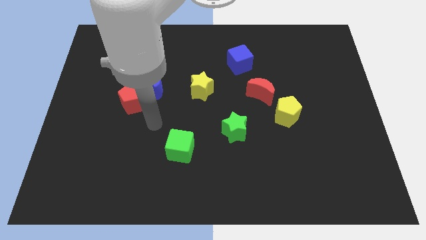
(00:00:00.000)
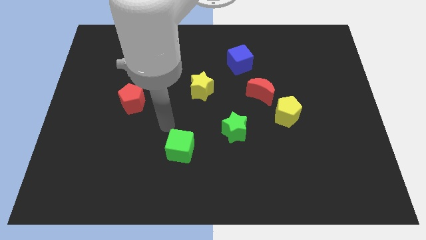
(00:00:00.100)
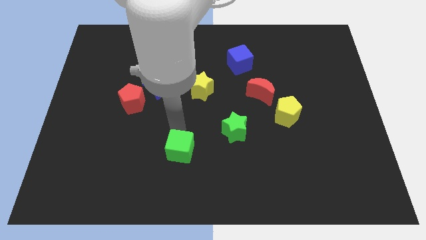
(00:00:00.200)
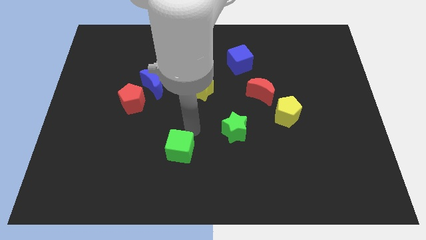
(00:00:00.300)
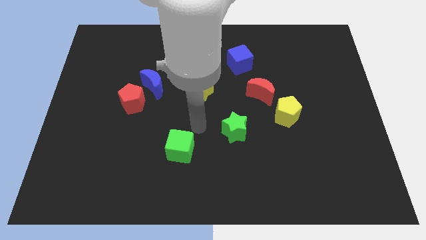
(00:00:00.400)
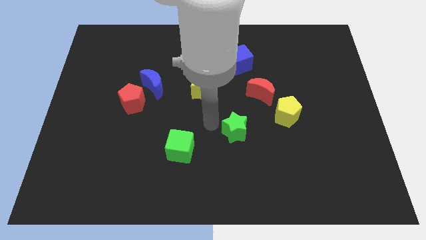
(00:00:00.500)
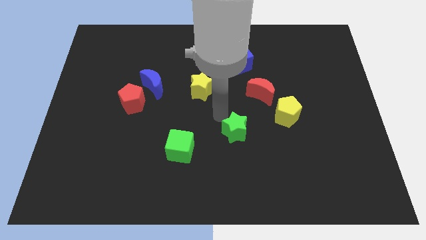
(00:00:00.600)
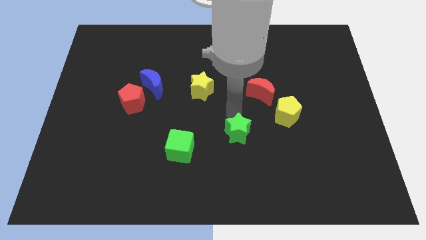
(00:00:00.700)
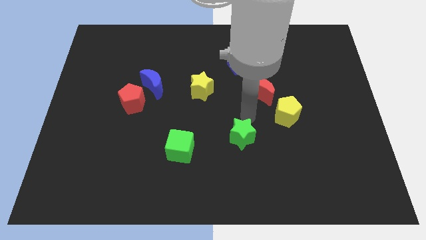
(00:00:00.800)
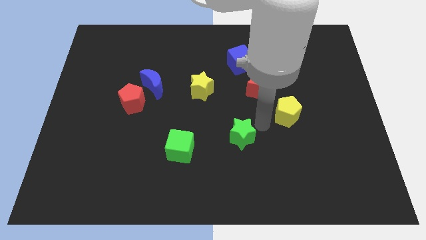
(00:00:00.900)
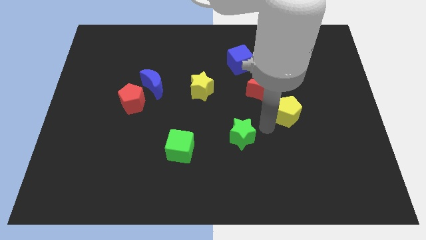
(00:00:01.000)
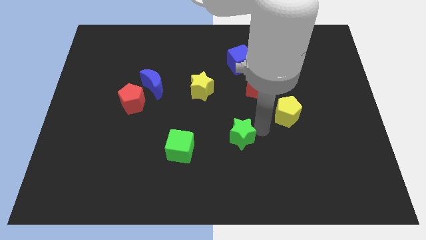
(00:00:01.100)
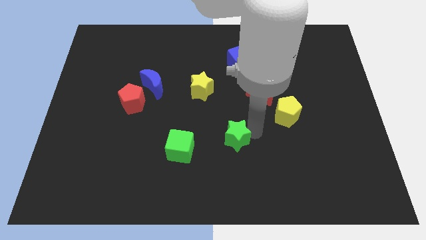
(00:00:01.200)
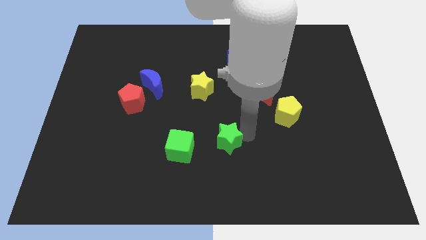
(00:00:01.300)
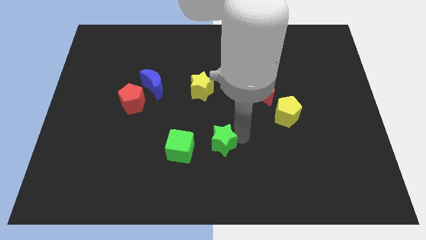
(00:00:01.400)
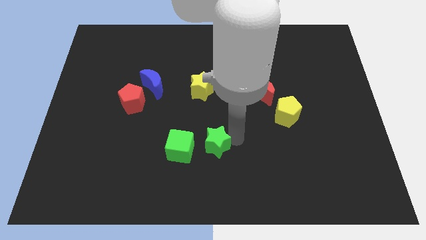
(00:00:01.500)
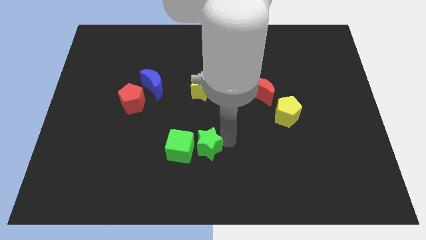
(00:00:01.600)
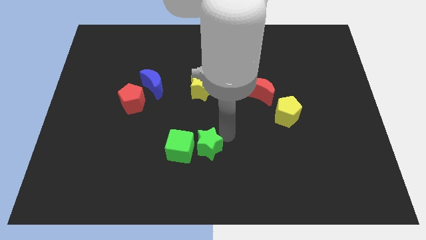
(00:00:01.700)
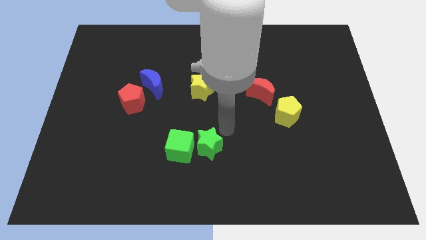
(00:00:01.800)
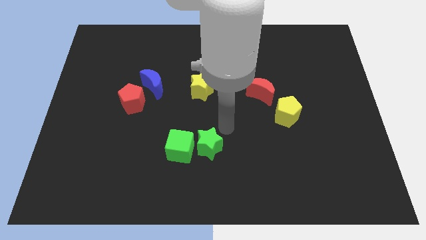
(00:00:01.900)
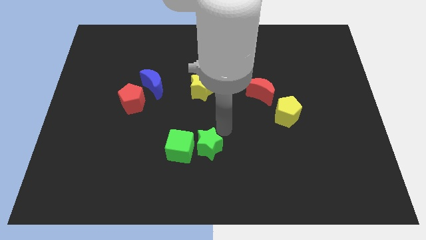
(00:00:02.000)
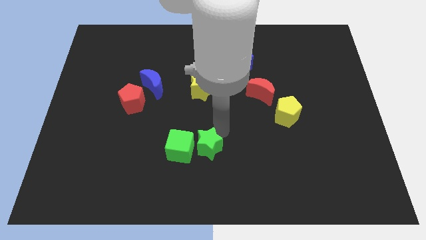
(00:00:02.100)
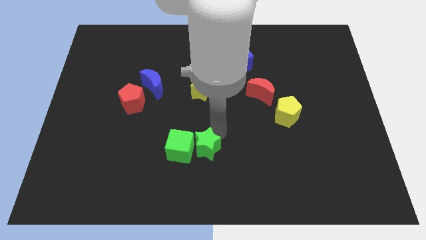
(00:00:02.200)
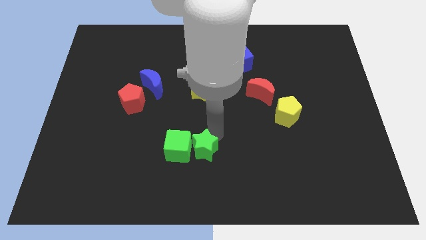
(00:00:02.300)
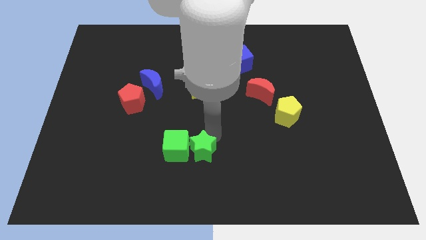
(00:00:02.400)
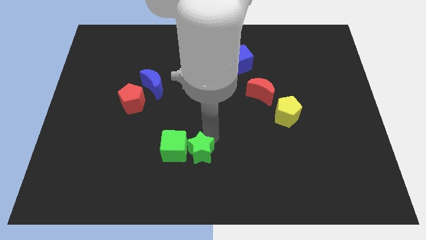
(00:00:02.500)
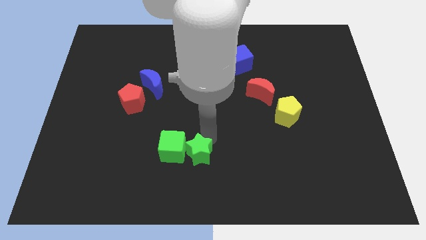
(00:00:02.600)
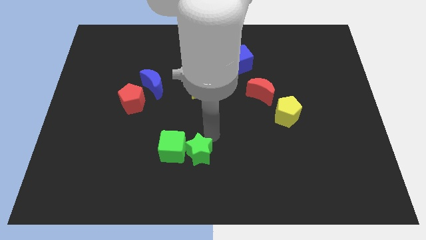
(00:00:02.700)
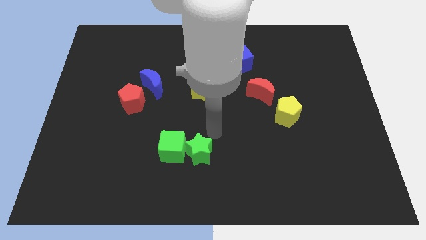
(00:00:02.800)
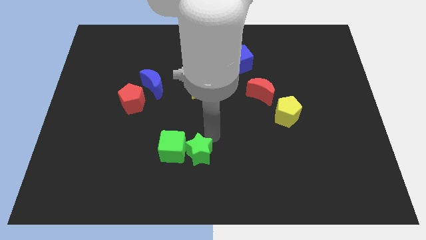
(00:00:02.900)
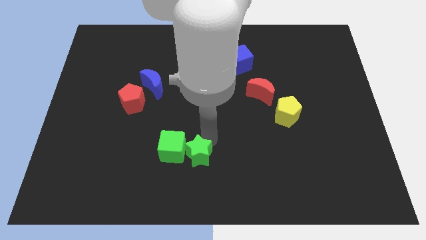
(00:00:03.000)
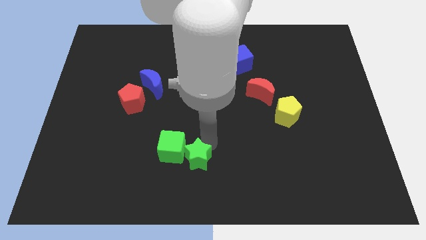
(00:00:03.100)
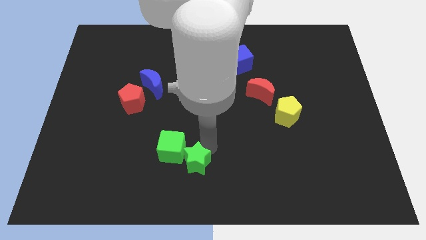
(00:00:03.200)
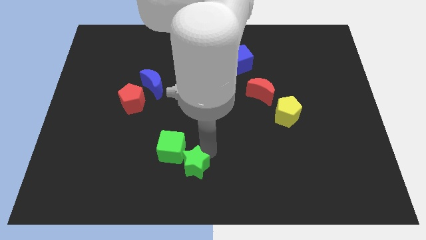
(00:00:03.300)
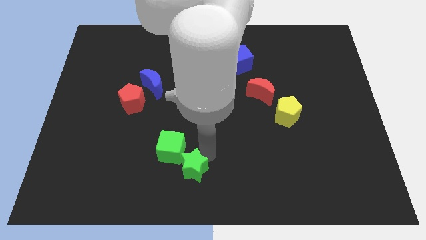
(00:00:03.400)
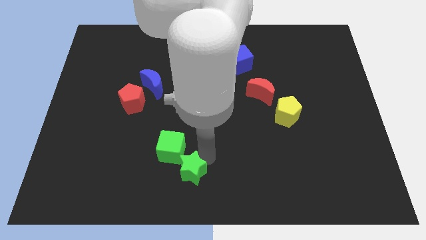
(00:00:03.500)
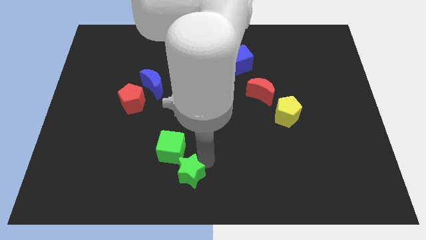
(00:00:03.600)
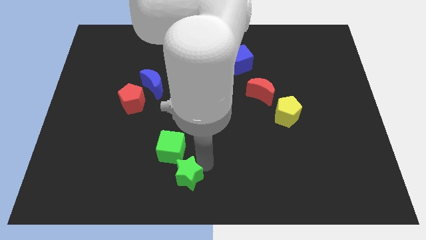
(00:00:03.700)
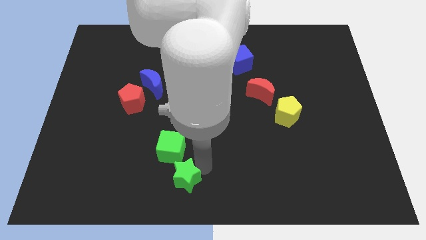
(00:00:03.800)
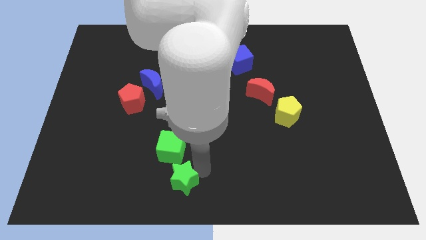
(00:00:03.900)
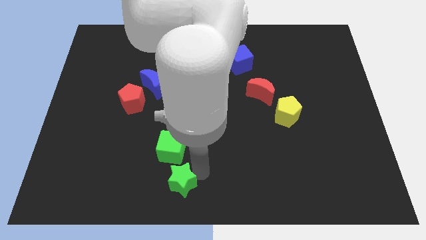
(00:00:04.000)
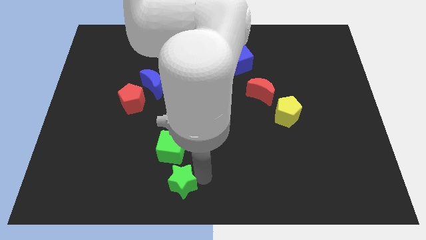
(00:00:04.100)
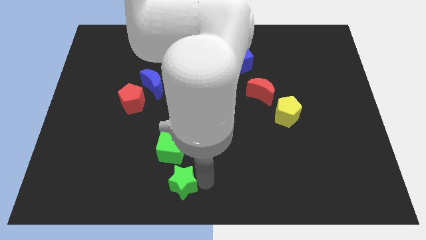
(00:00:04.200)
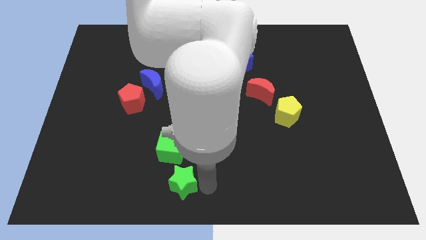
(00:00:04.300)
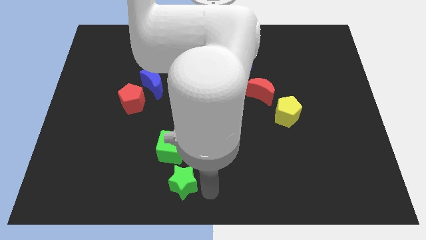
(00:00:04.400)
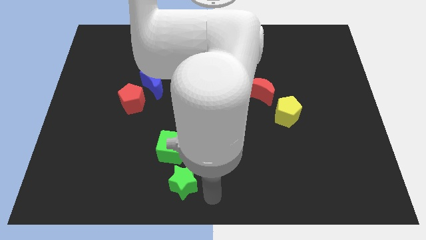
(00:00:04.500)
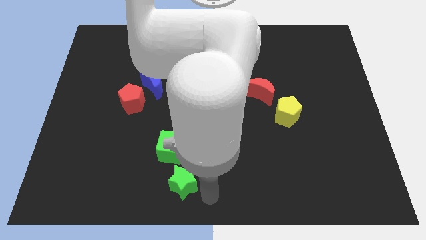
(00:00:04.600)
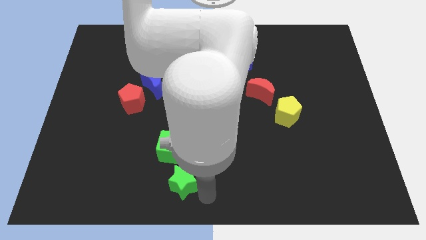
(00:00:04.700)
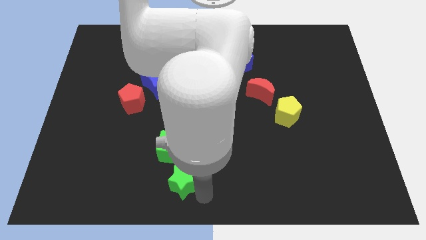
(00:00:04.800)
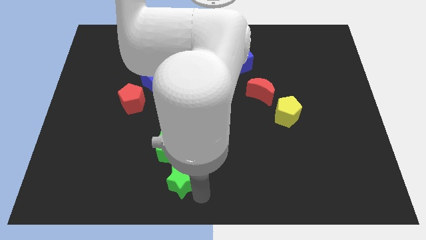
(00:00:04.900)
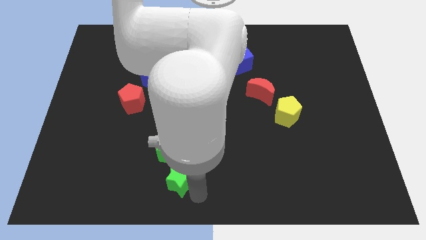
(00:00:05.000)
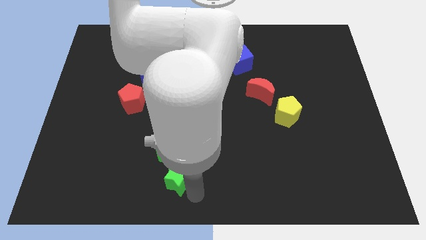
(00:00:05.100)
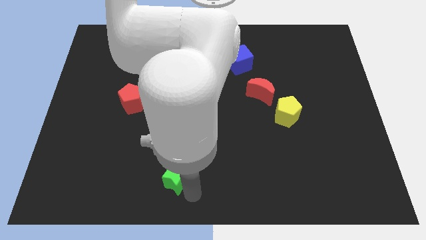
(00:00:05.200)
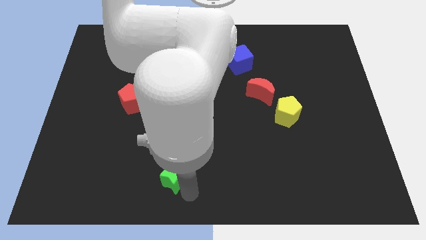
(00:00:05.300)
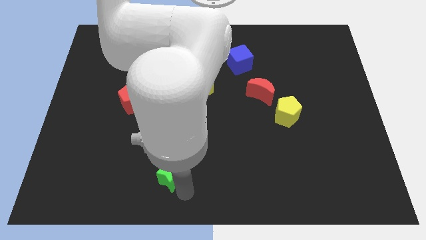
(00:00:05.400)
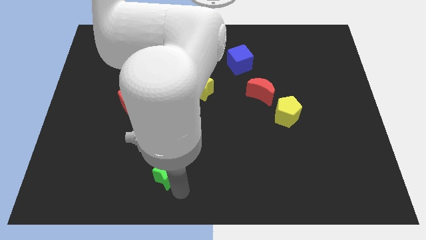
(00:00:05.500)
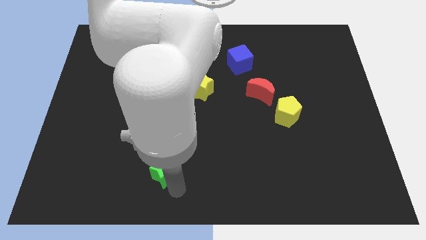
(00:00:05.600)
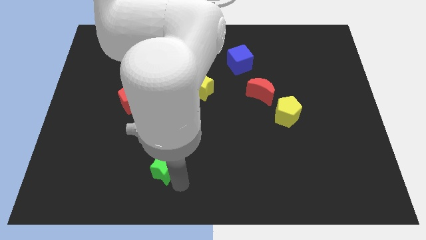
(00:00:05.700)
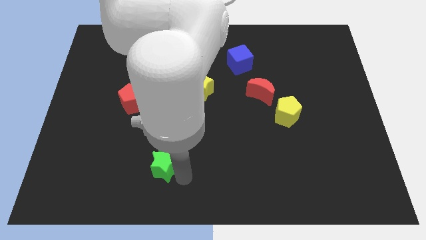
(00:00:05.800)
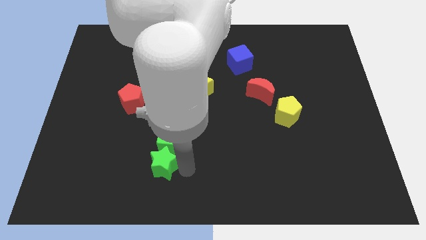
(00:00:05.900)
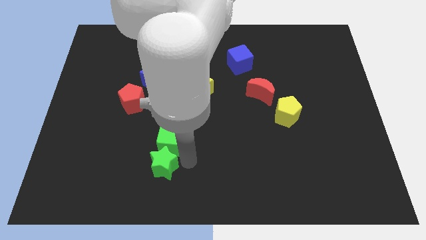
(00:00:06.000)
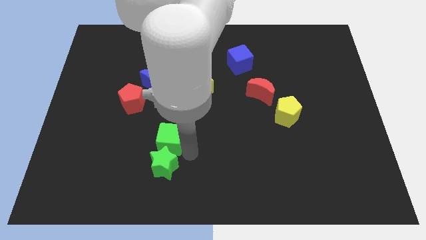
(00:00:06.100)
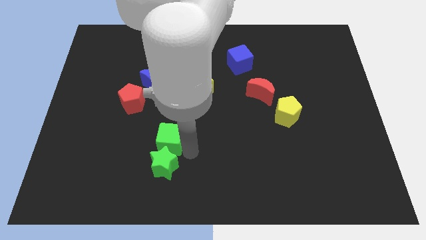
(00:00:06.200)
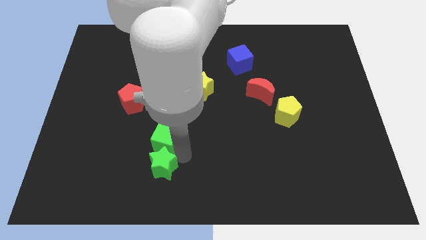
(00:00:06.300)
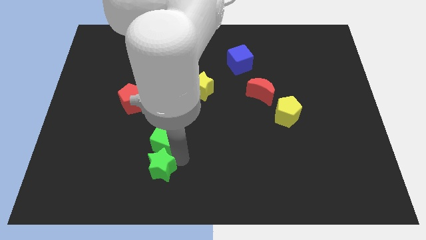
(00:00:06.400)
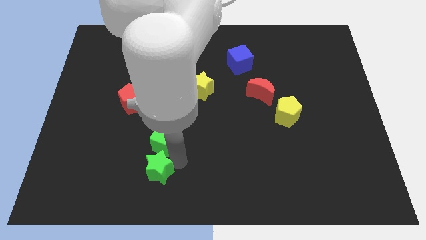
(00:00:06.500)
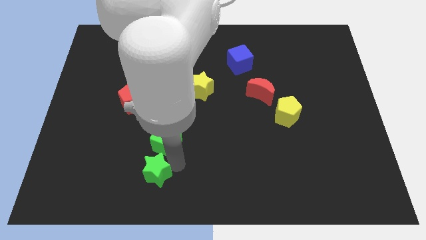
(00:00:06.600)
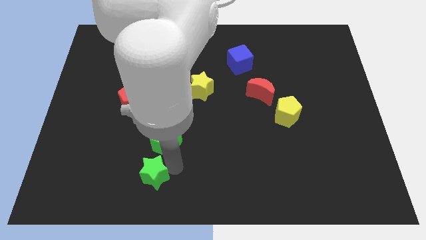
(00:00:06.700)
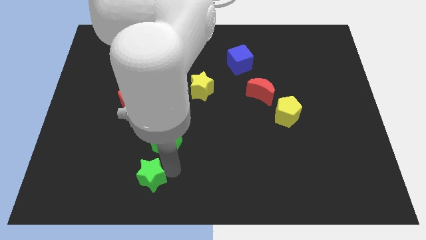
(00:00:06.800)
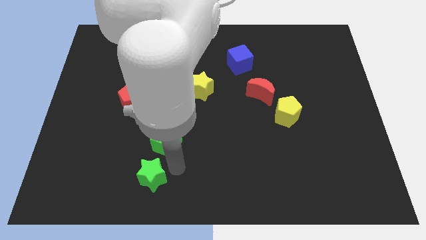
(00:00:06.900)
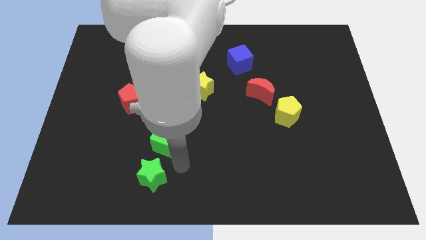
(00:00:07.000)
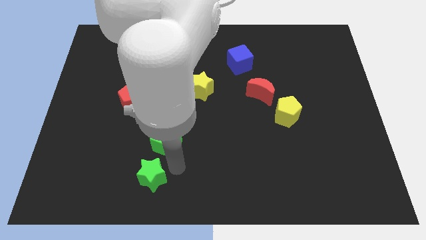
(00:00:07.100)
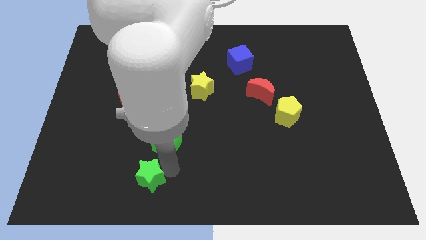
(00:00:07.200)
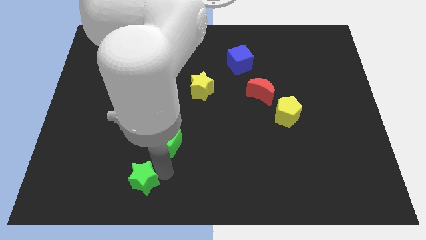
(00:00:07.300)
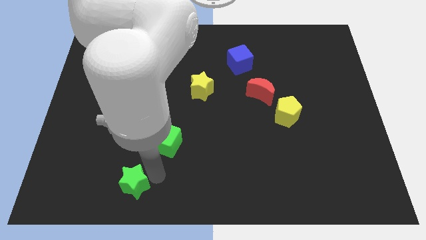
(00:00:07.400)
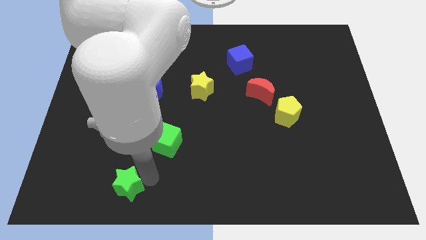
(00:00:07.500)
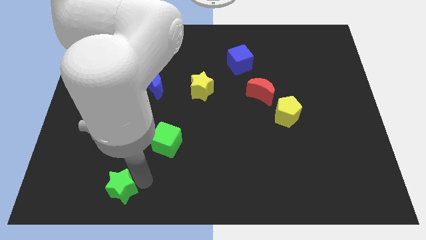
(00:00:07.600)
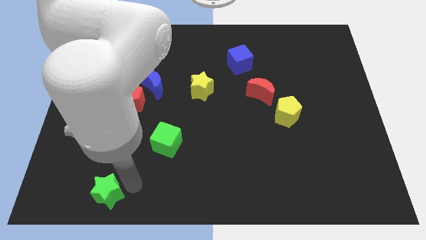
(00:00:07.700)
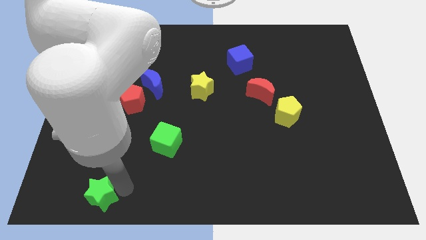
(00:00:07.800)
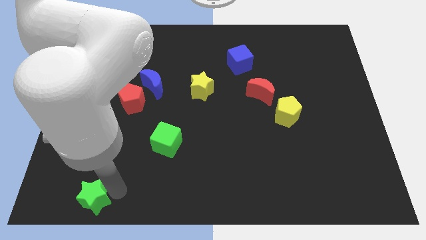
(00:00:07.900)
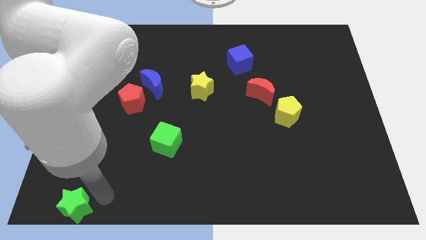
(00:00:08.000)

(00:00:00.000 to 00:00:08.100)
push the green star to the bottom left of the board

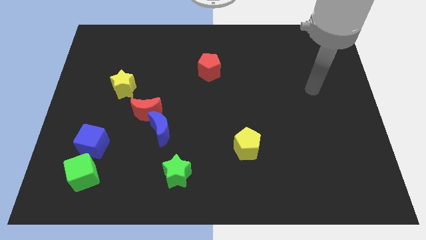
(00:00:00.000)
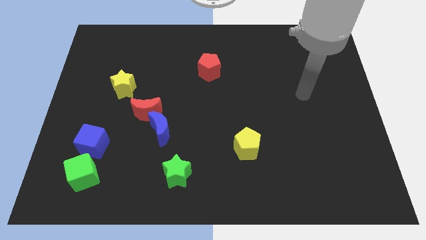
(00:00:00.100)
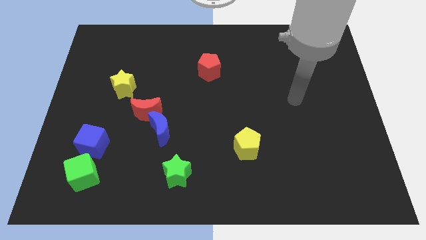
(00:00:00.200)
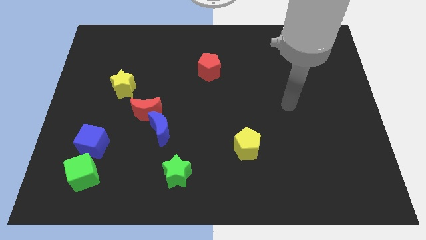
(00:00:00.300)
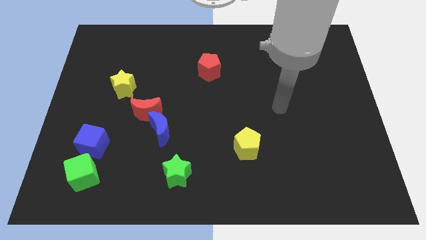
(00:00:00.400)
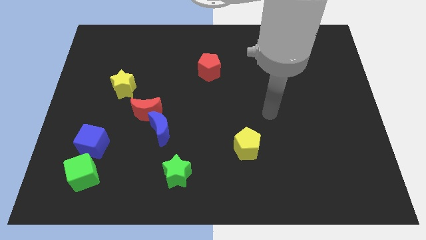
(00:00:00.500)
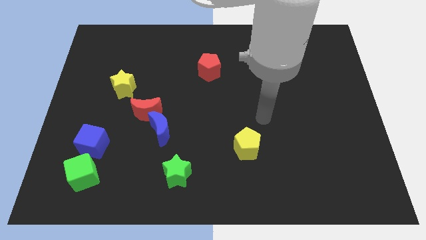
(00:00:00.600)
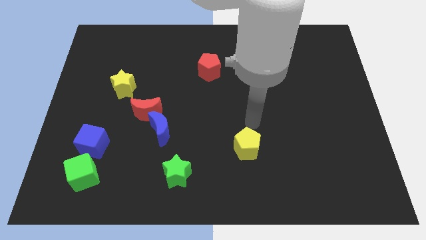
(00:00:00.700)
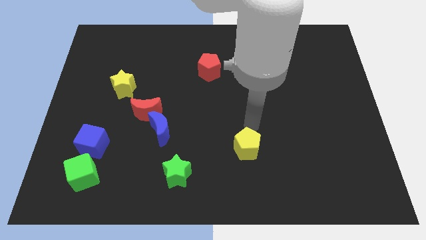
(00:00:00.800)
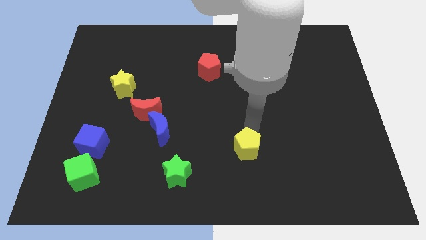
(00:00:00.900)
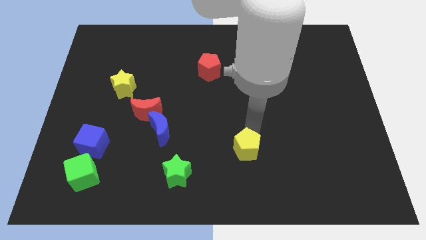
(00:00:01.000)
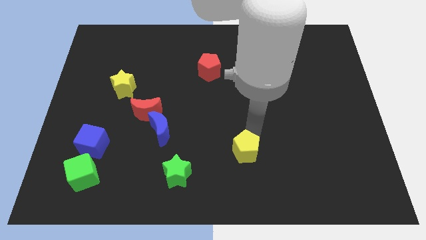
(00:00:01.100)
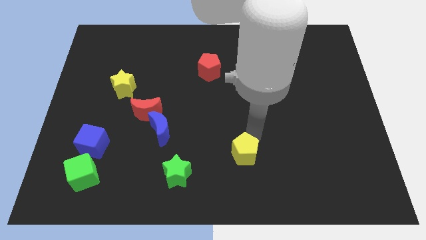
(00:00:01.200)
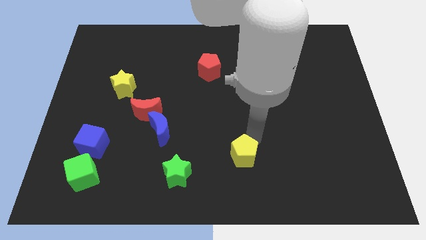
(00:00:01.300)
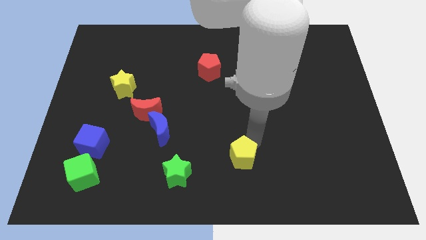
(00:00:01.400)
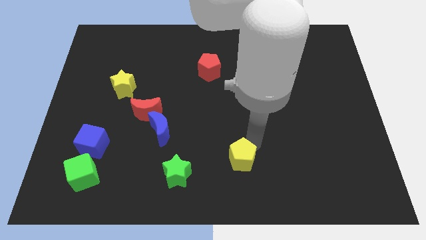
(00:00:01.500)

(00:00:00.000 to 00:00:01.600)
move the yellow pentagon to the bottom side
